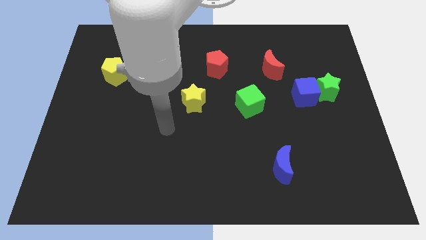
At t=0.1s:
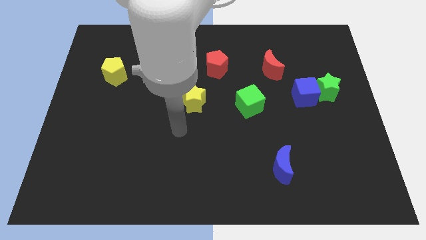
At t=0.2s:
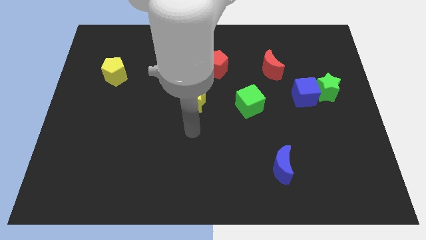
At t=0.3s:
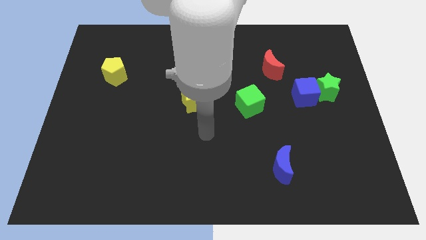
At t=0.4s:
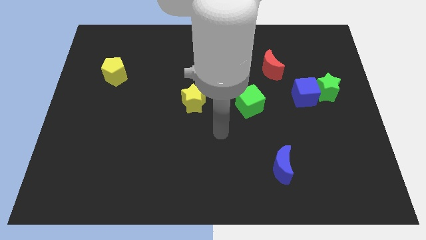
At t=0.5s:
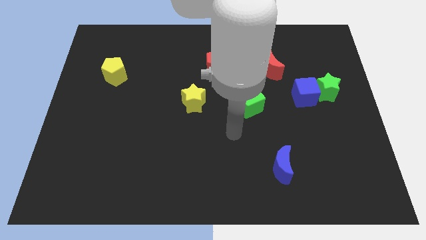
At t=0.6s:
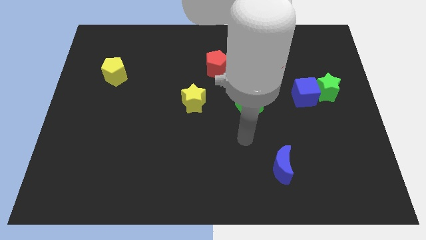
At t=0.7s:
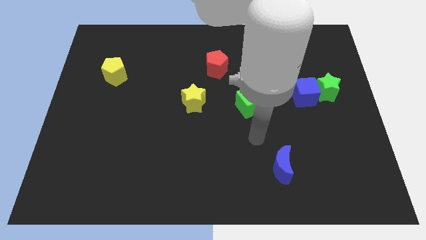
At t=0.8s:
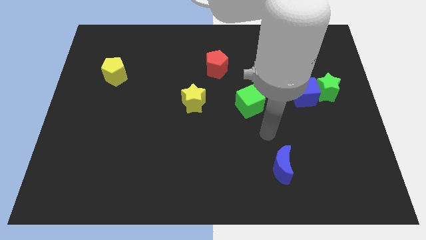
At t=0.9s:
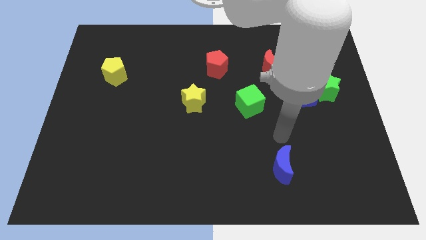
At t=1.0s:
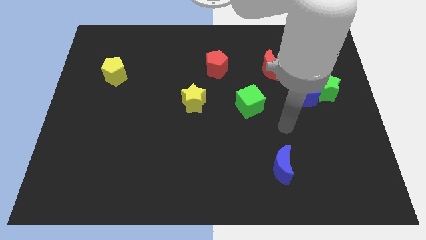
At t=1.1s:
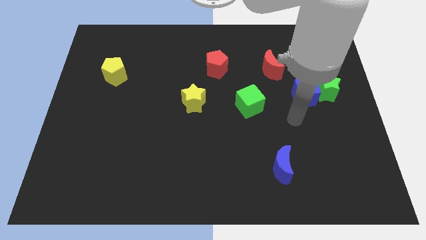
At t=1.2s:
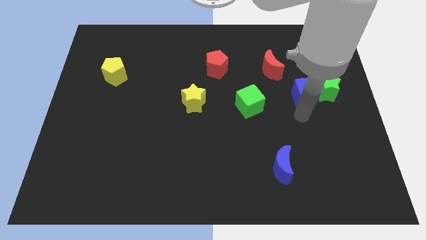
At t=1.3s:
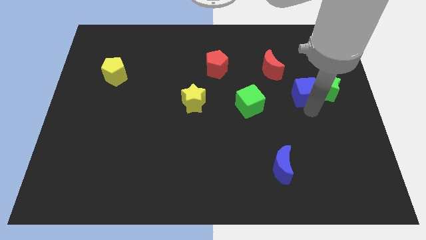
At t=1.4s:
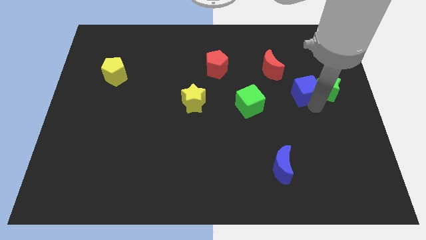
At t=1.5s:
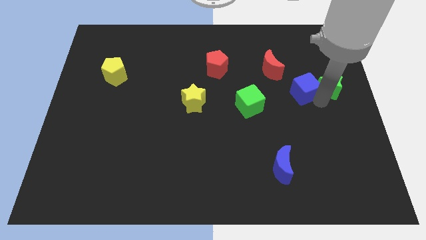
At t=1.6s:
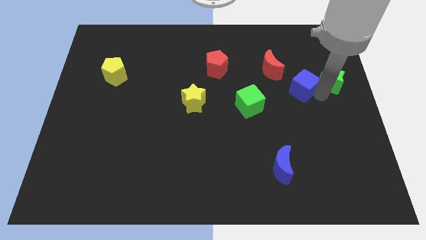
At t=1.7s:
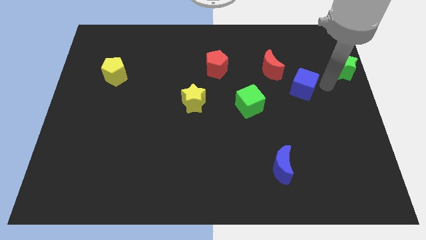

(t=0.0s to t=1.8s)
separate the blue cube from the green star

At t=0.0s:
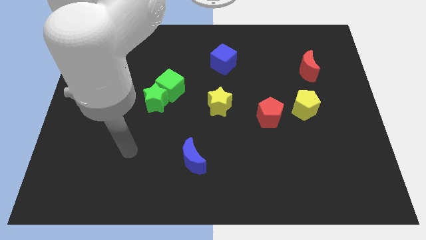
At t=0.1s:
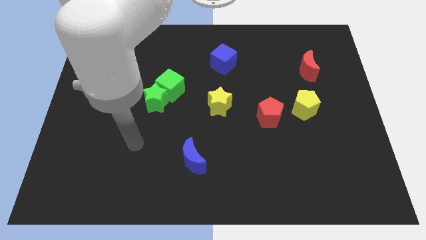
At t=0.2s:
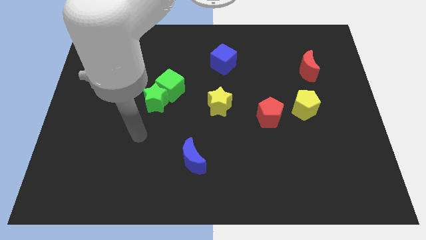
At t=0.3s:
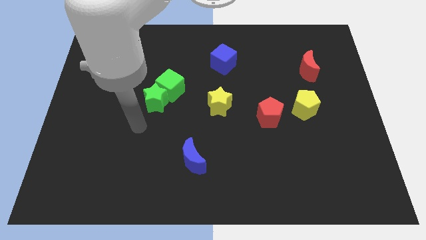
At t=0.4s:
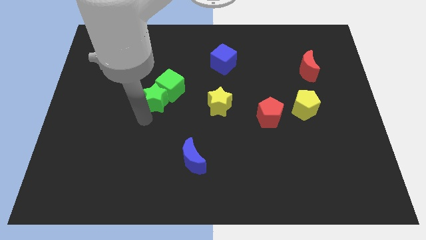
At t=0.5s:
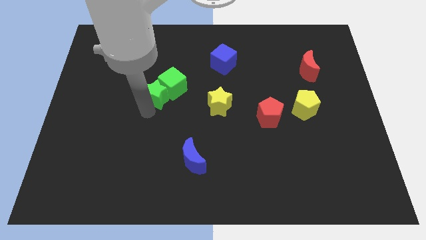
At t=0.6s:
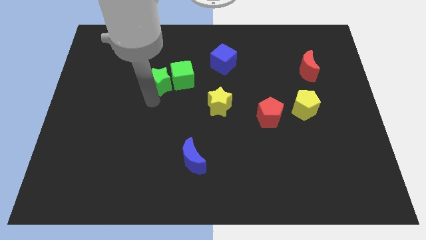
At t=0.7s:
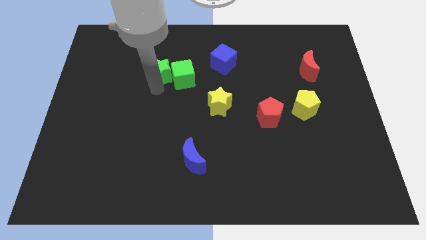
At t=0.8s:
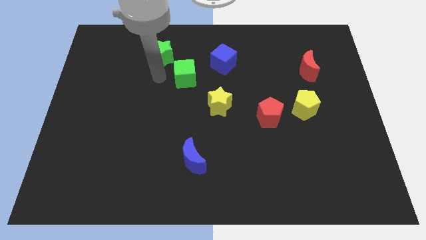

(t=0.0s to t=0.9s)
separate the green cube from the green star

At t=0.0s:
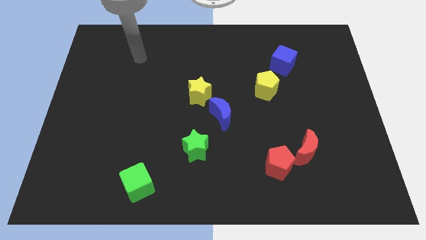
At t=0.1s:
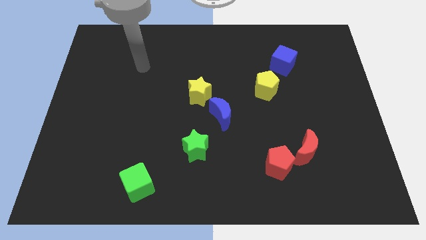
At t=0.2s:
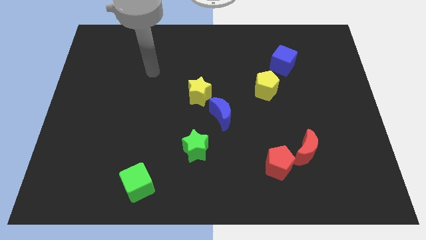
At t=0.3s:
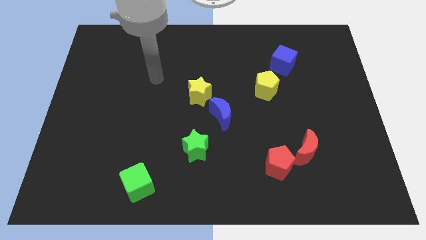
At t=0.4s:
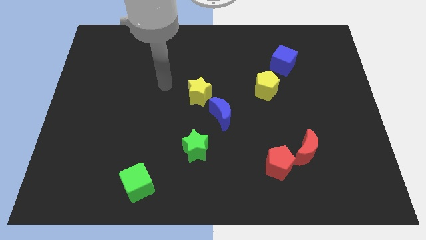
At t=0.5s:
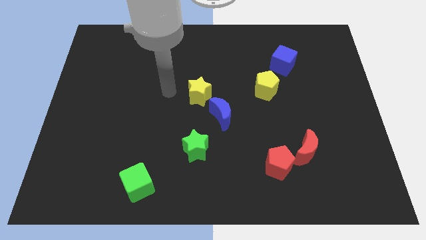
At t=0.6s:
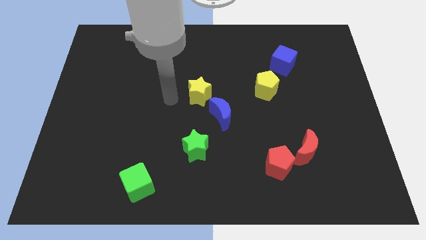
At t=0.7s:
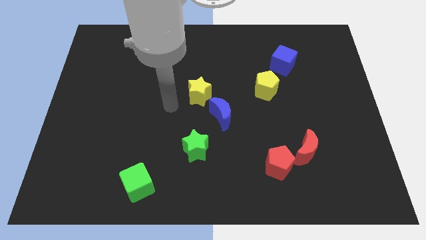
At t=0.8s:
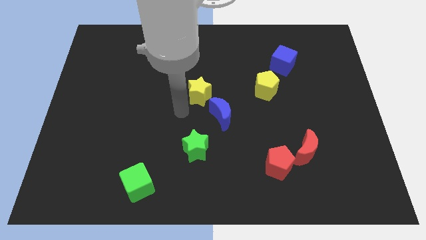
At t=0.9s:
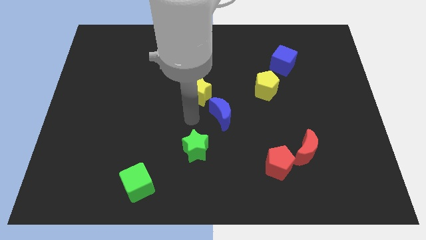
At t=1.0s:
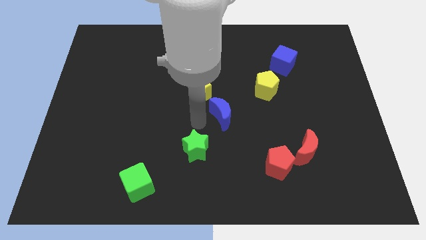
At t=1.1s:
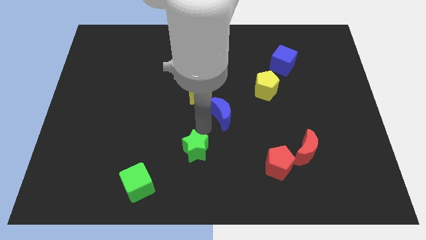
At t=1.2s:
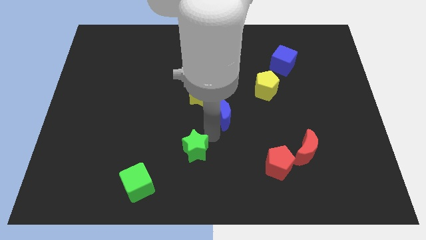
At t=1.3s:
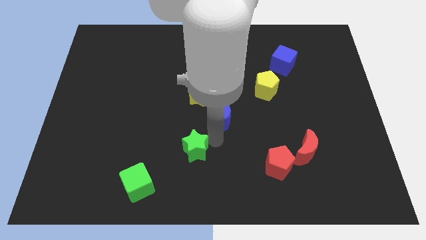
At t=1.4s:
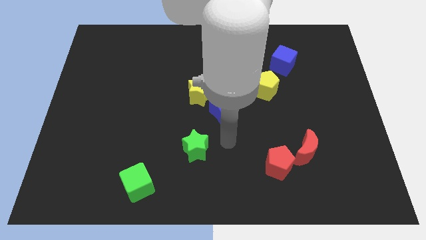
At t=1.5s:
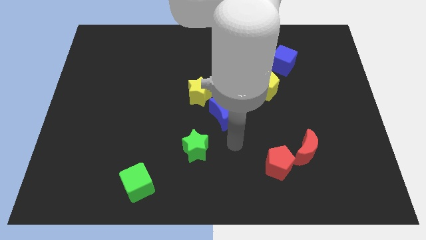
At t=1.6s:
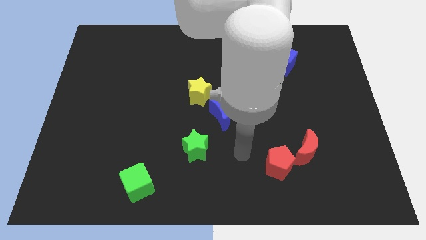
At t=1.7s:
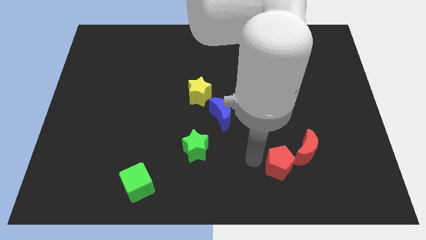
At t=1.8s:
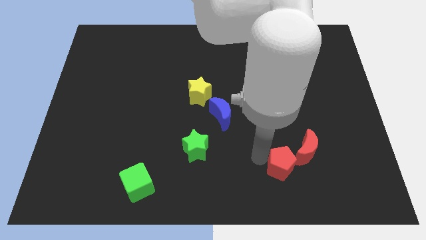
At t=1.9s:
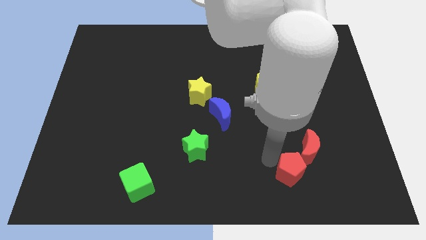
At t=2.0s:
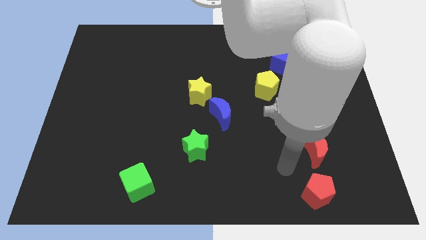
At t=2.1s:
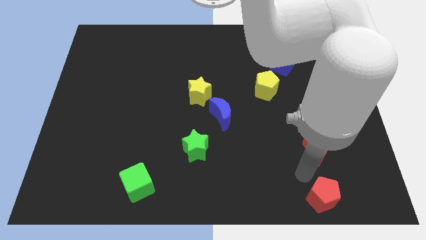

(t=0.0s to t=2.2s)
separate the red moon from the red pentagon

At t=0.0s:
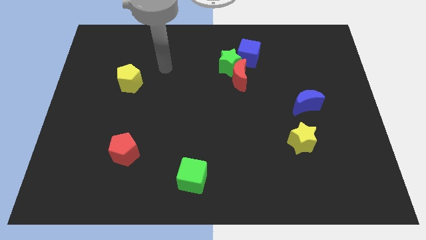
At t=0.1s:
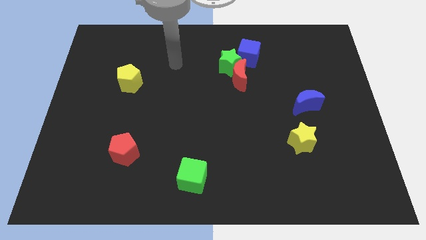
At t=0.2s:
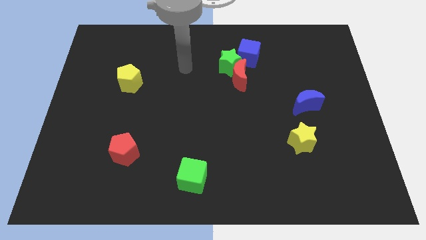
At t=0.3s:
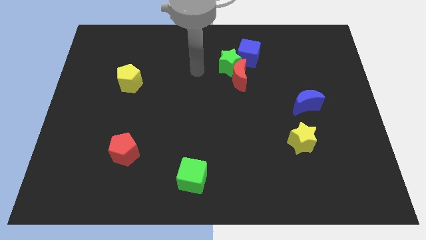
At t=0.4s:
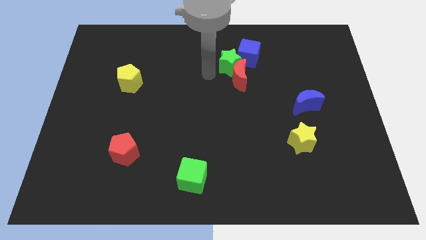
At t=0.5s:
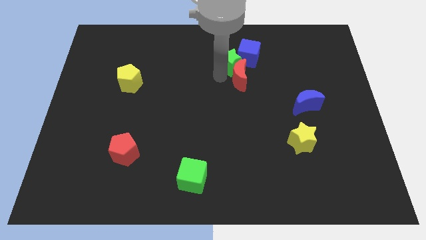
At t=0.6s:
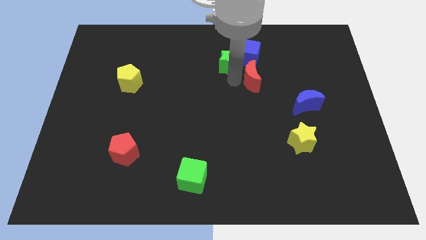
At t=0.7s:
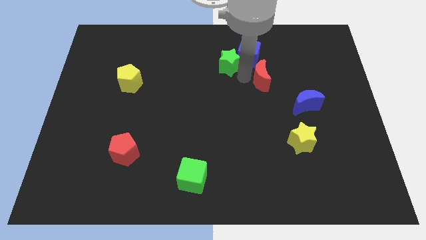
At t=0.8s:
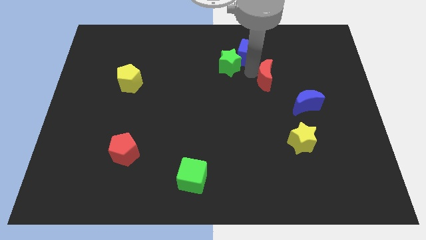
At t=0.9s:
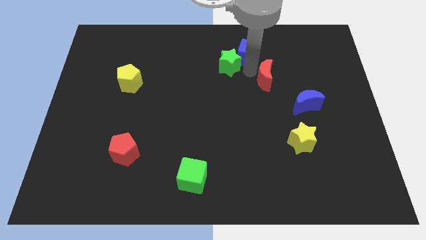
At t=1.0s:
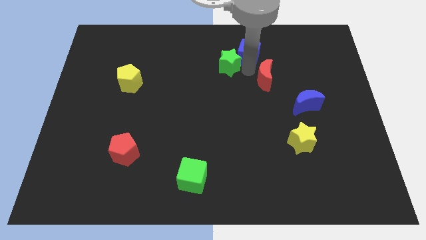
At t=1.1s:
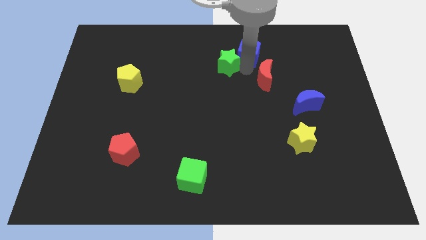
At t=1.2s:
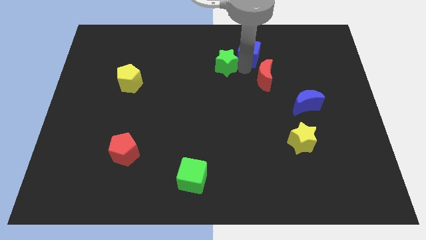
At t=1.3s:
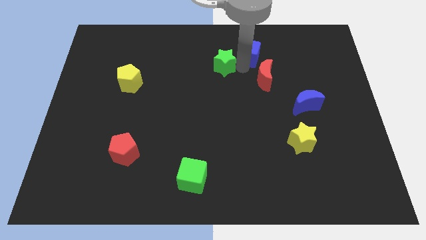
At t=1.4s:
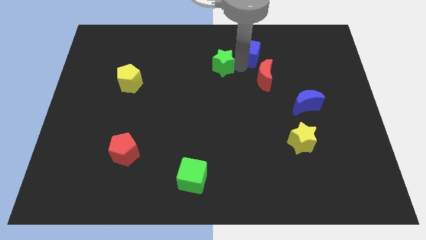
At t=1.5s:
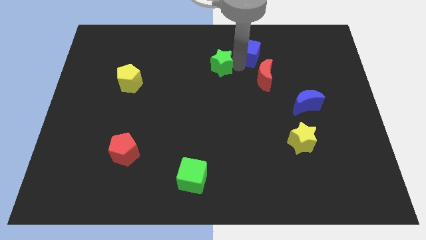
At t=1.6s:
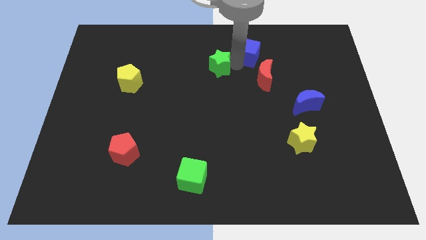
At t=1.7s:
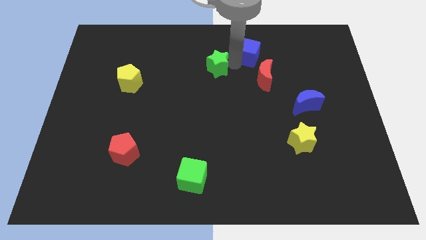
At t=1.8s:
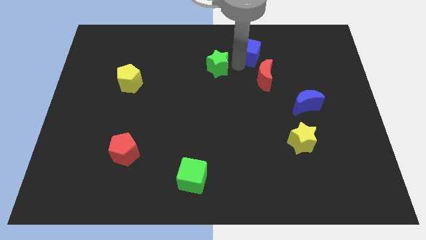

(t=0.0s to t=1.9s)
separate the green star from the red moon and blue cube

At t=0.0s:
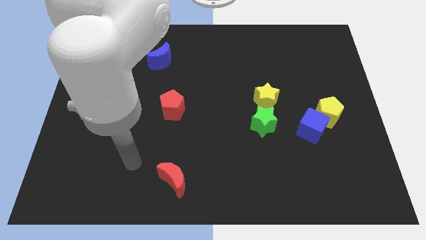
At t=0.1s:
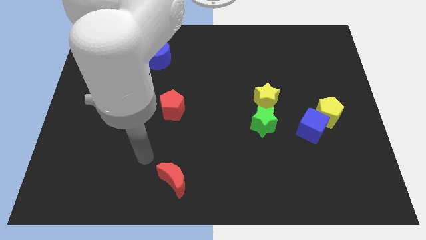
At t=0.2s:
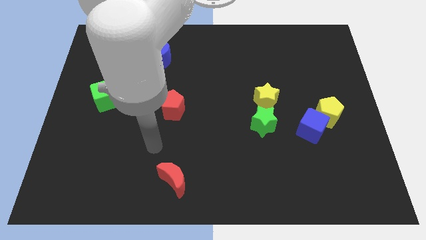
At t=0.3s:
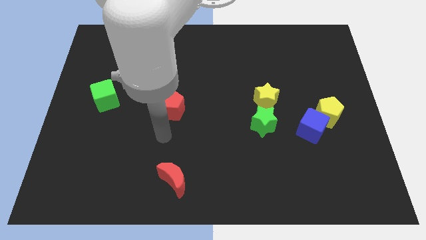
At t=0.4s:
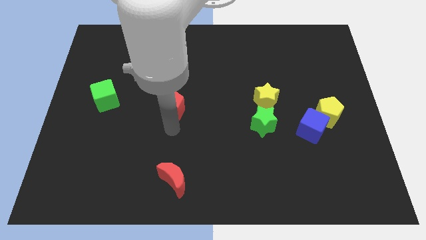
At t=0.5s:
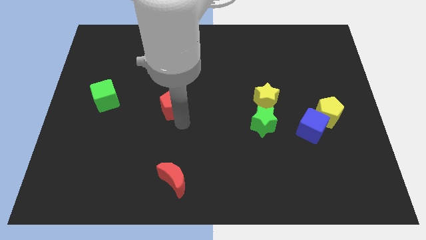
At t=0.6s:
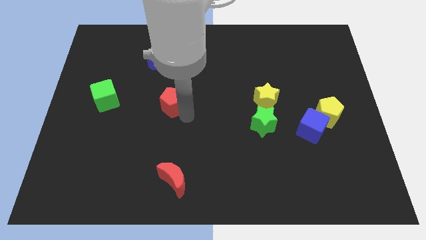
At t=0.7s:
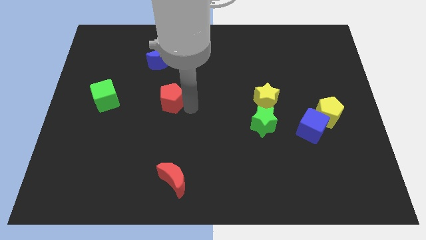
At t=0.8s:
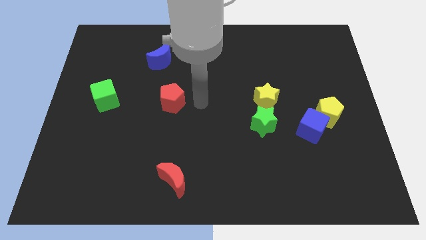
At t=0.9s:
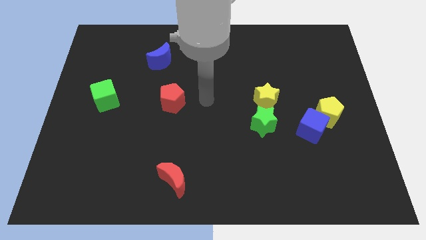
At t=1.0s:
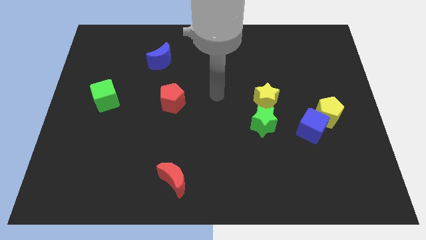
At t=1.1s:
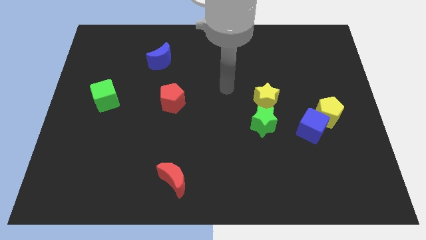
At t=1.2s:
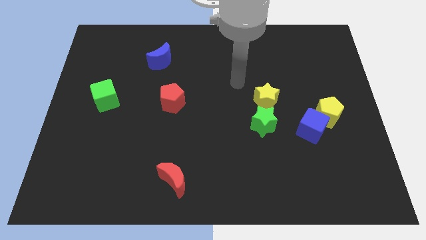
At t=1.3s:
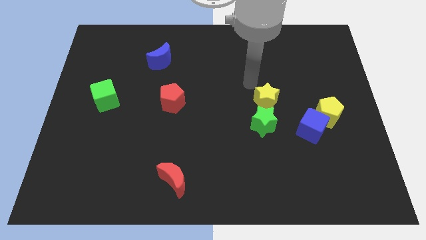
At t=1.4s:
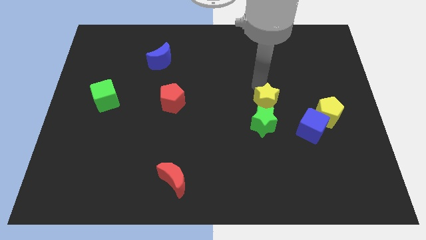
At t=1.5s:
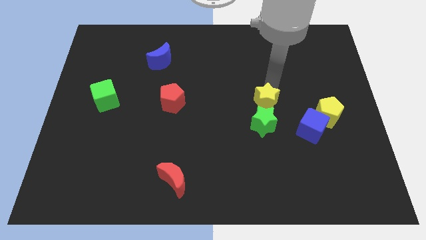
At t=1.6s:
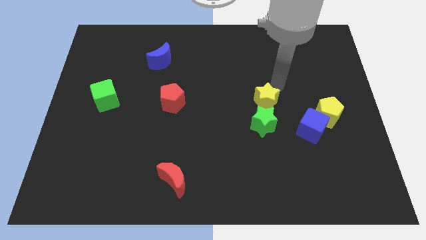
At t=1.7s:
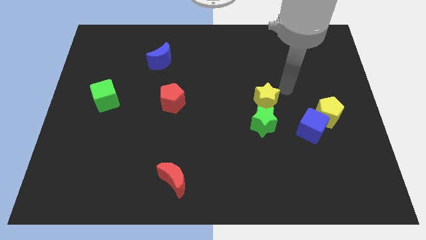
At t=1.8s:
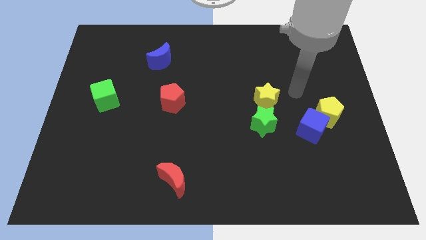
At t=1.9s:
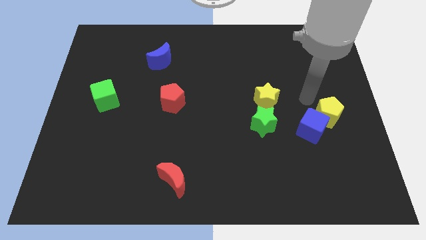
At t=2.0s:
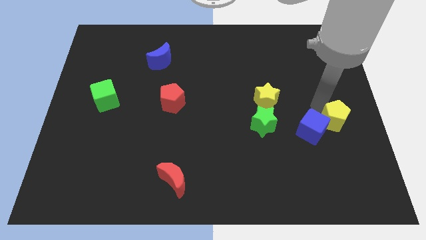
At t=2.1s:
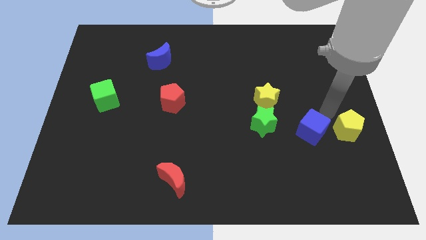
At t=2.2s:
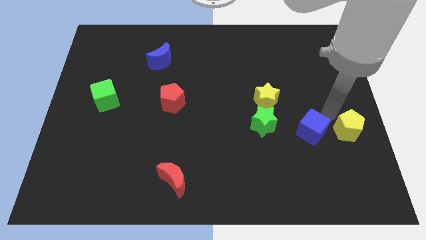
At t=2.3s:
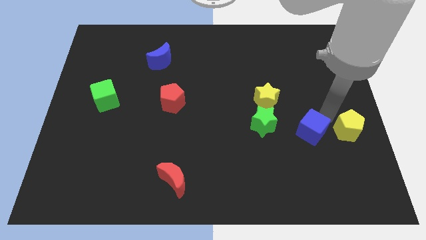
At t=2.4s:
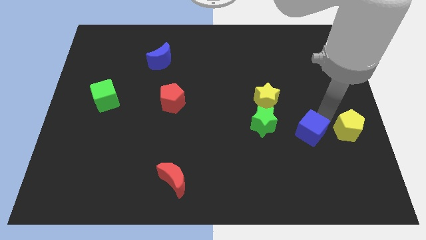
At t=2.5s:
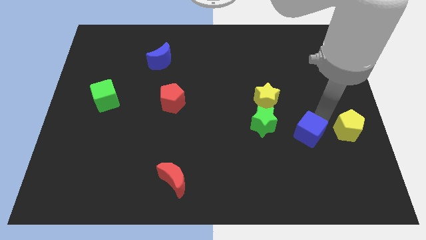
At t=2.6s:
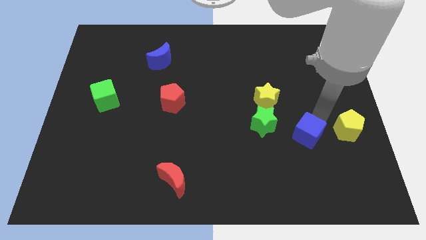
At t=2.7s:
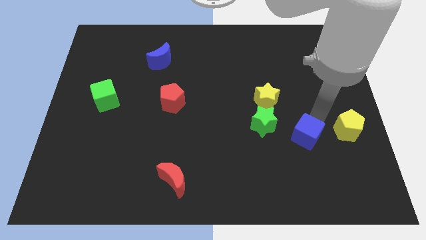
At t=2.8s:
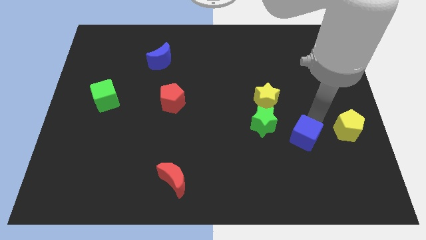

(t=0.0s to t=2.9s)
separate the blue cube from the yellow pentagon
